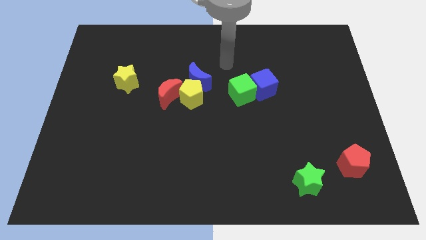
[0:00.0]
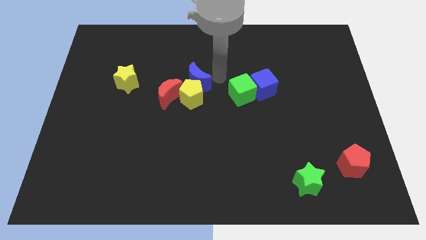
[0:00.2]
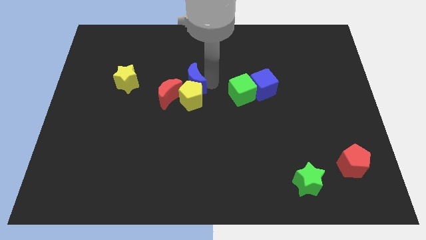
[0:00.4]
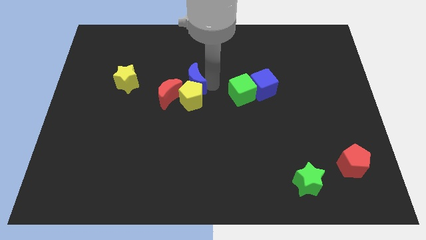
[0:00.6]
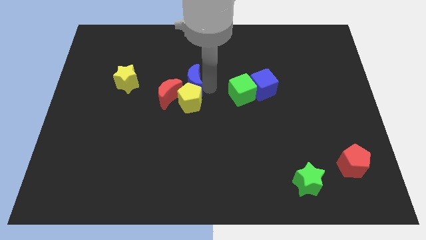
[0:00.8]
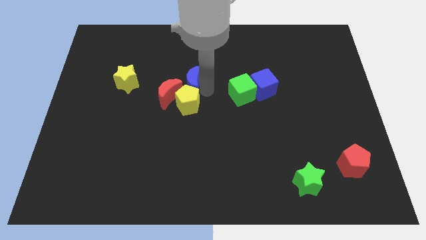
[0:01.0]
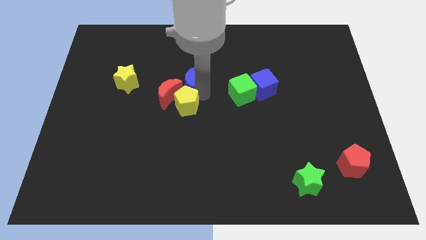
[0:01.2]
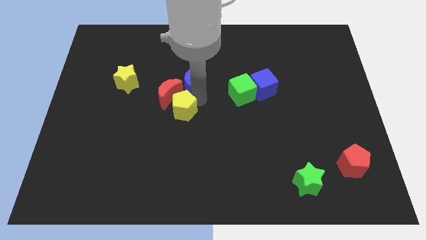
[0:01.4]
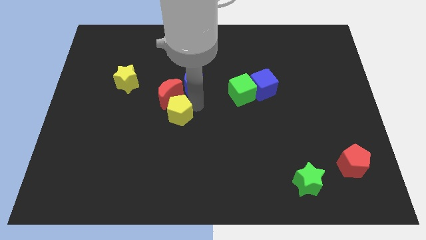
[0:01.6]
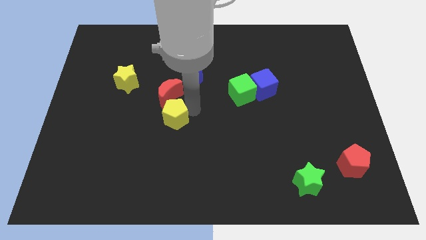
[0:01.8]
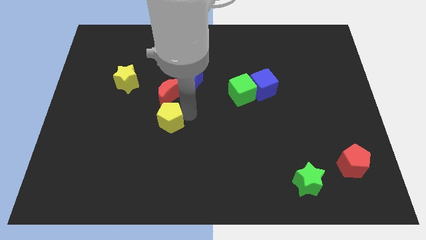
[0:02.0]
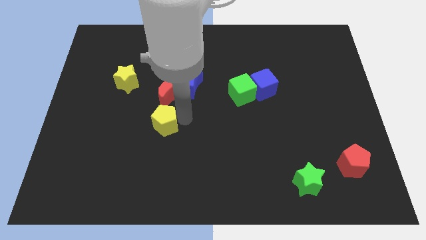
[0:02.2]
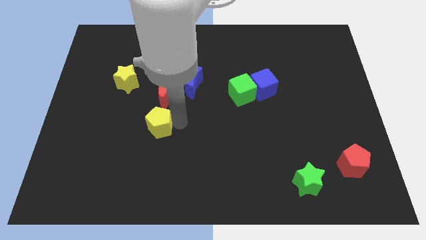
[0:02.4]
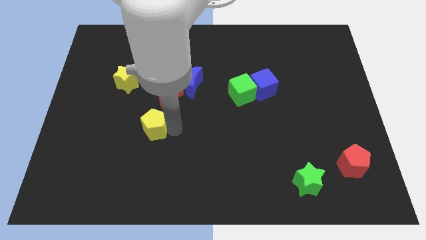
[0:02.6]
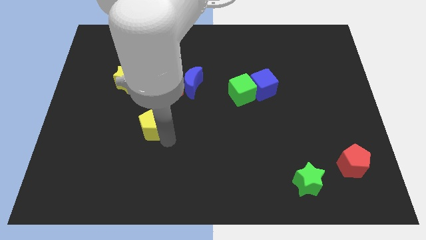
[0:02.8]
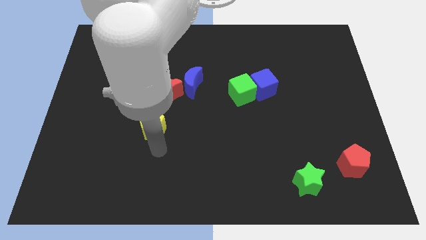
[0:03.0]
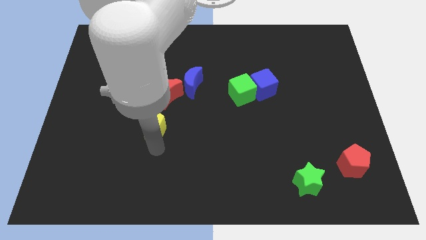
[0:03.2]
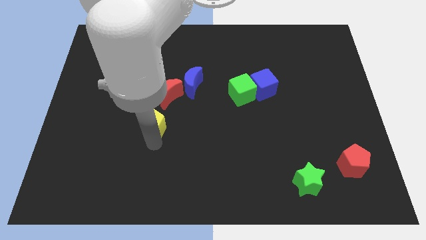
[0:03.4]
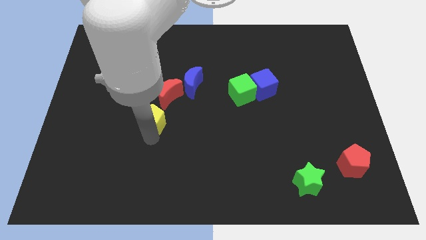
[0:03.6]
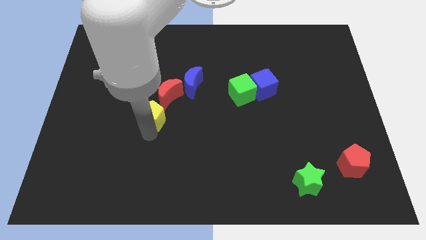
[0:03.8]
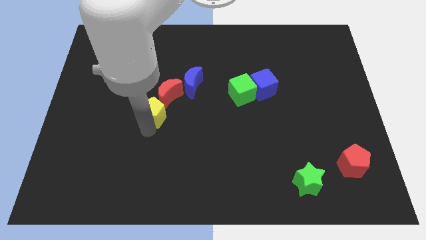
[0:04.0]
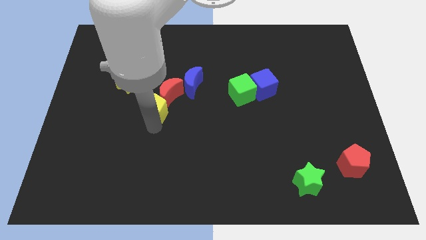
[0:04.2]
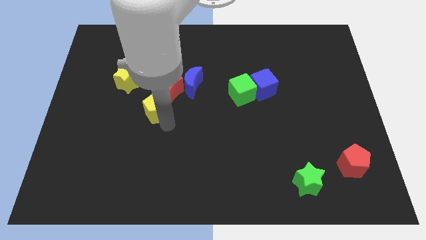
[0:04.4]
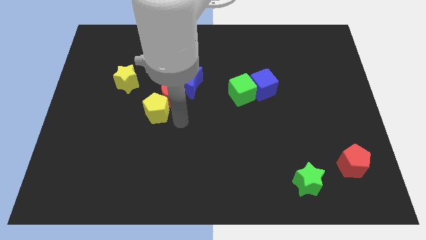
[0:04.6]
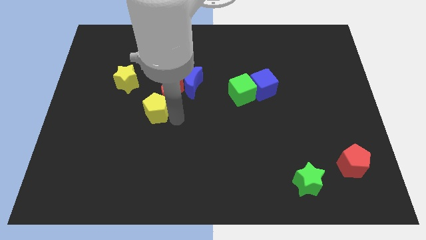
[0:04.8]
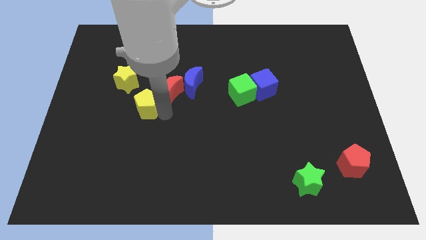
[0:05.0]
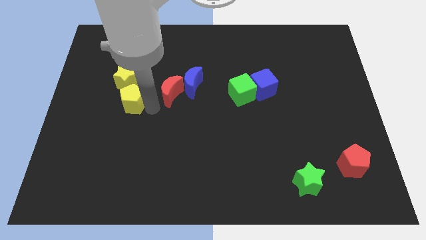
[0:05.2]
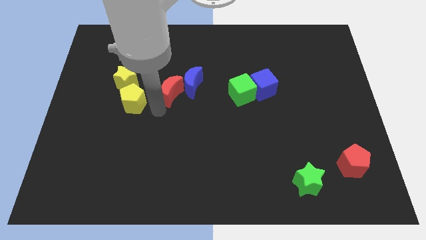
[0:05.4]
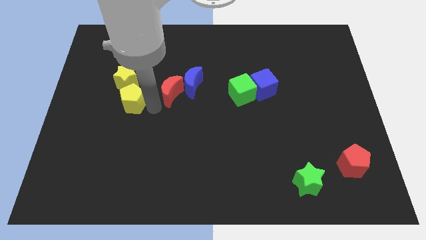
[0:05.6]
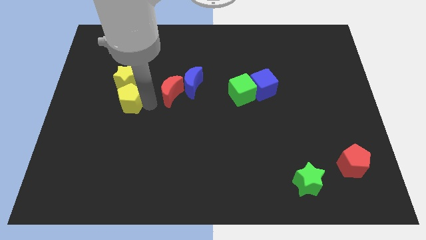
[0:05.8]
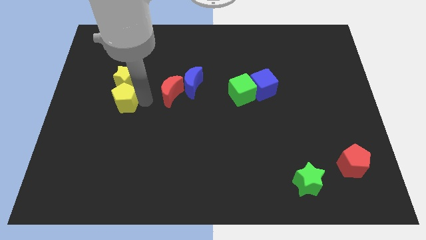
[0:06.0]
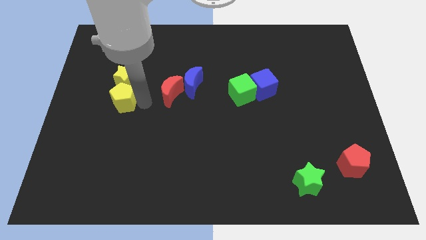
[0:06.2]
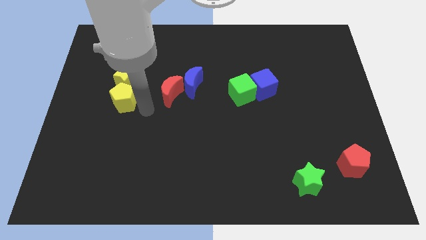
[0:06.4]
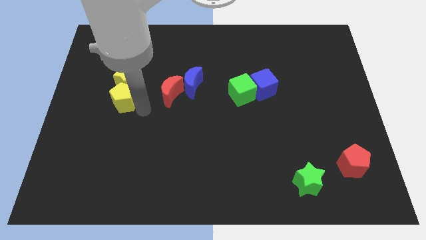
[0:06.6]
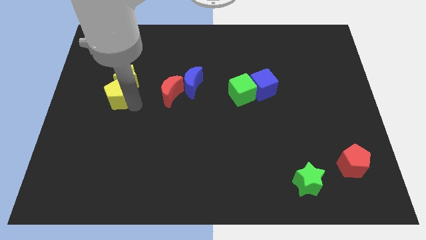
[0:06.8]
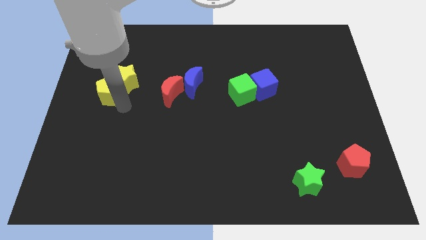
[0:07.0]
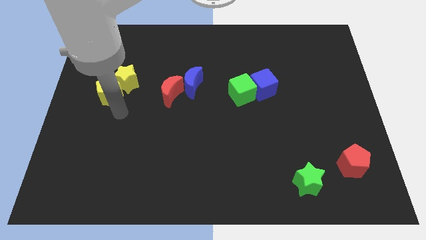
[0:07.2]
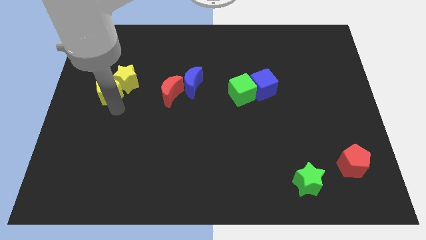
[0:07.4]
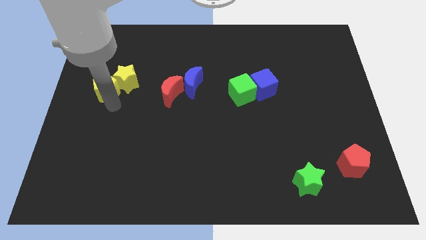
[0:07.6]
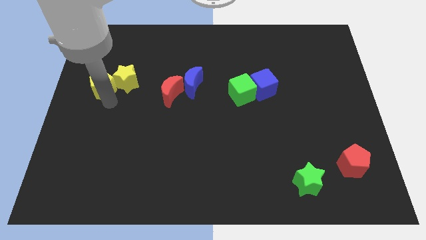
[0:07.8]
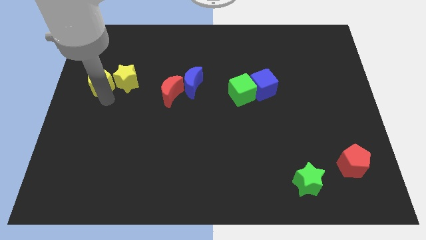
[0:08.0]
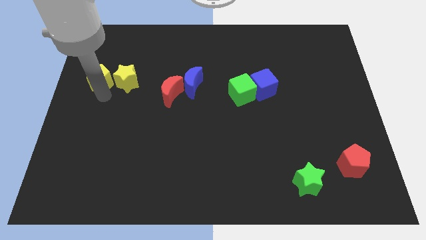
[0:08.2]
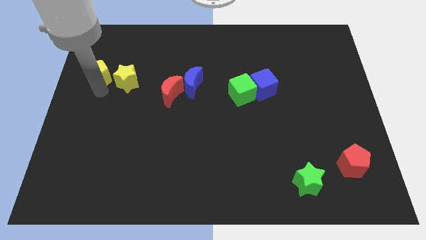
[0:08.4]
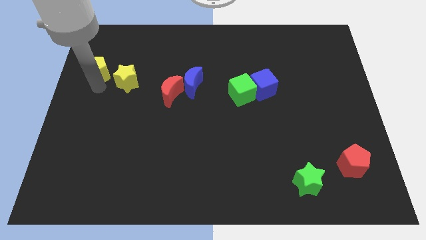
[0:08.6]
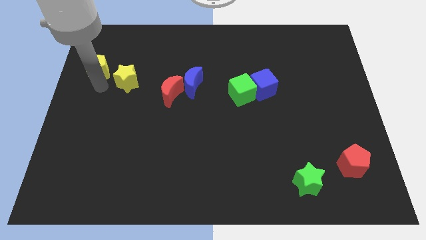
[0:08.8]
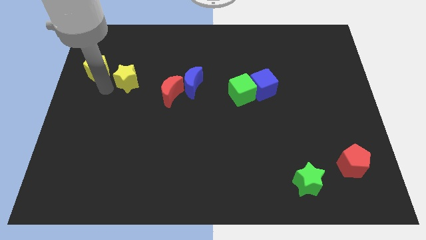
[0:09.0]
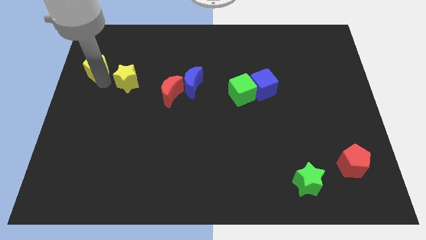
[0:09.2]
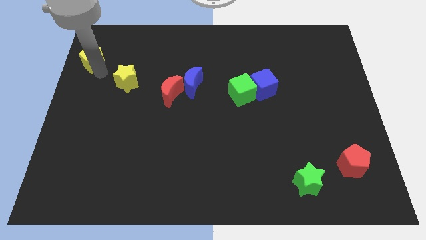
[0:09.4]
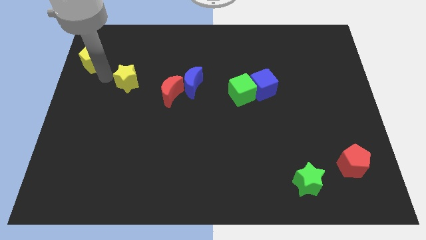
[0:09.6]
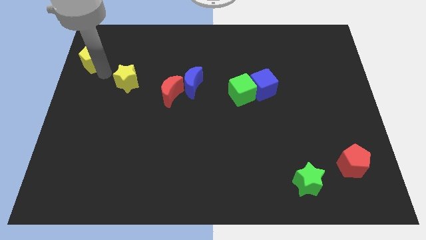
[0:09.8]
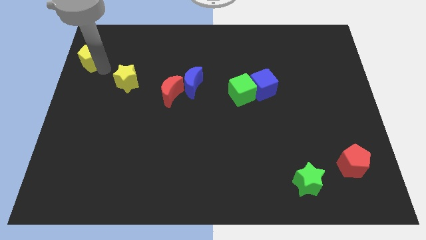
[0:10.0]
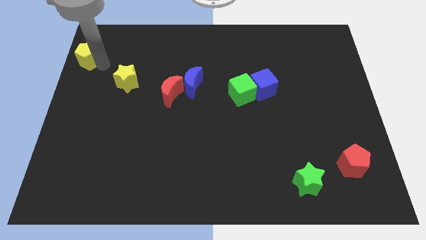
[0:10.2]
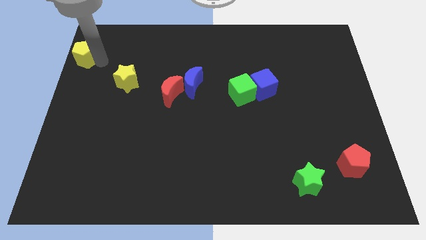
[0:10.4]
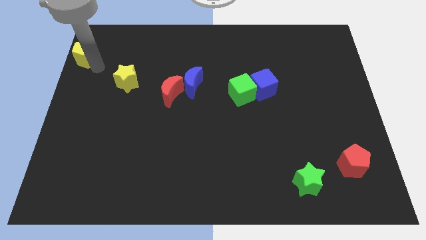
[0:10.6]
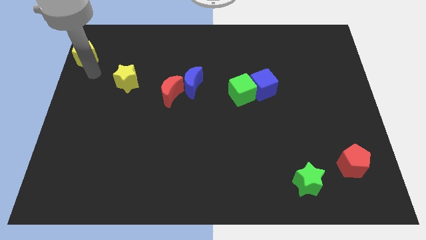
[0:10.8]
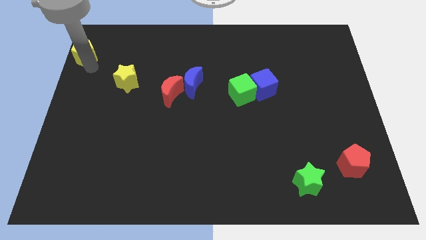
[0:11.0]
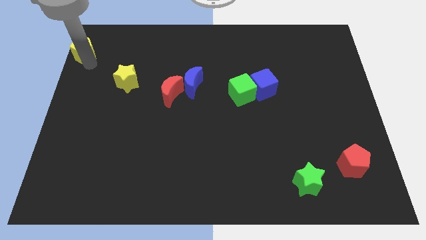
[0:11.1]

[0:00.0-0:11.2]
slide the yellow pentagon to the top left of the board
